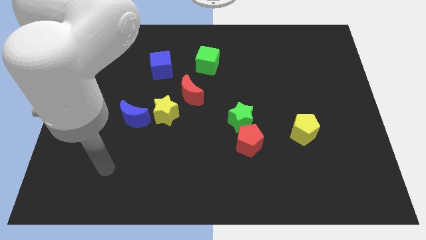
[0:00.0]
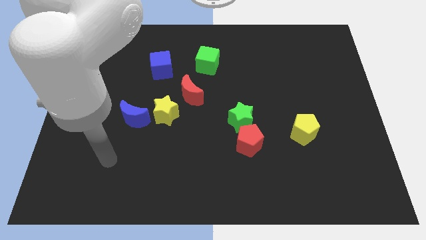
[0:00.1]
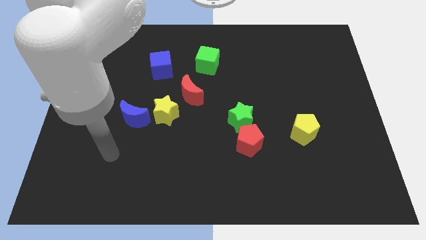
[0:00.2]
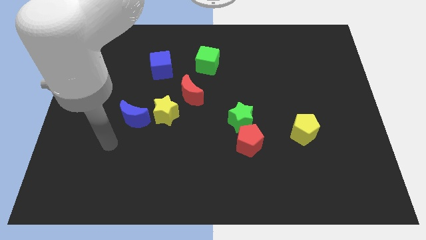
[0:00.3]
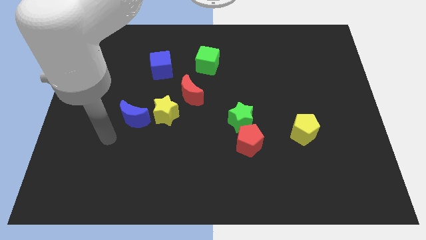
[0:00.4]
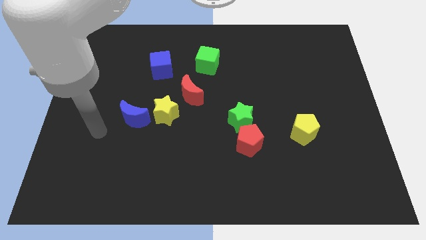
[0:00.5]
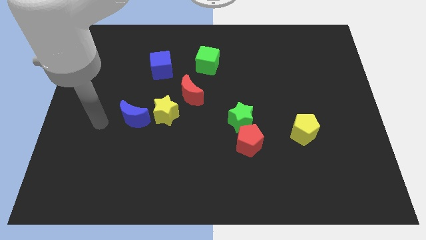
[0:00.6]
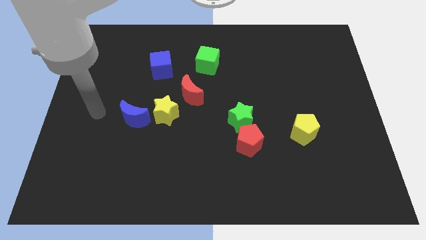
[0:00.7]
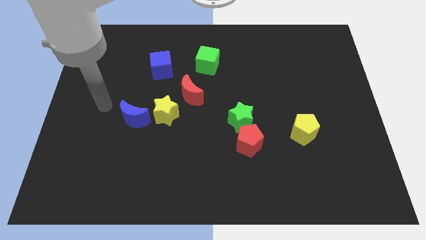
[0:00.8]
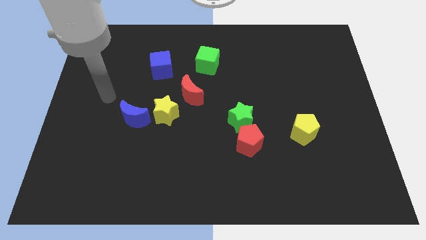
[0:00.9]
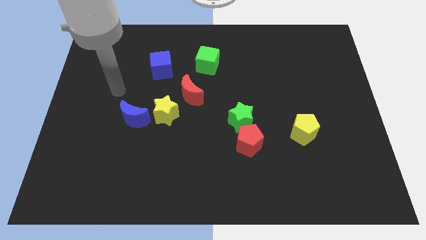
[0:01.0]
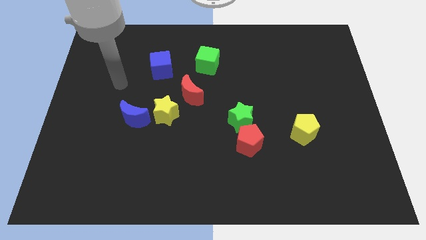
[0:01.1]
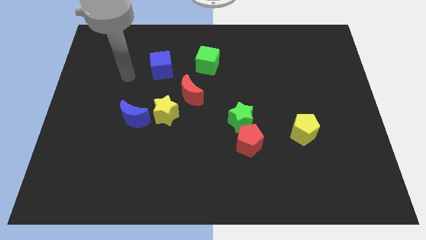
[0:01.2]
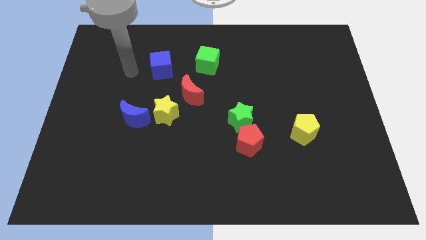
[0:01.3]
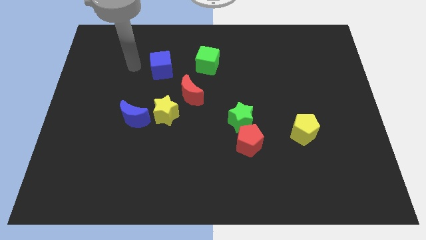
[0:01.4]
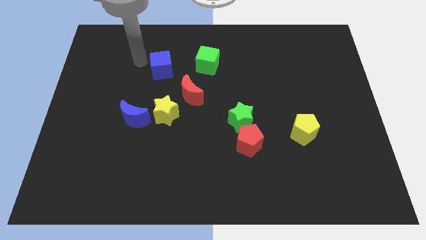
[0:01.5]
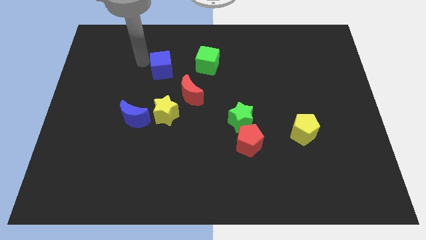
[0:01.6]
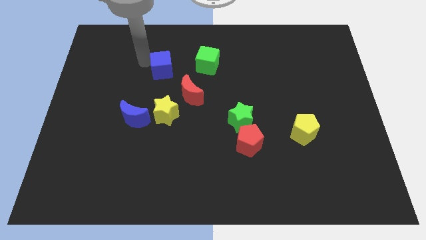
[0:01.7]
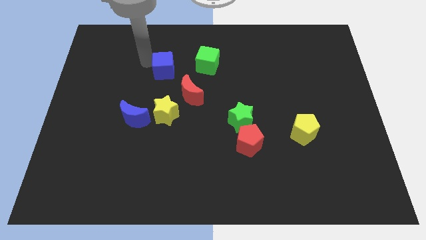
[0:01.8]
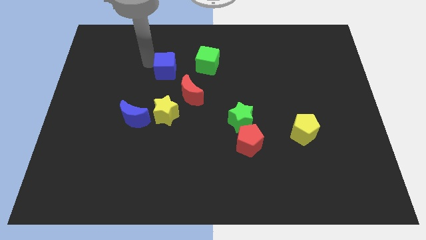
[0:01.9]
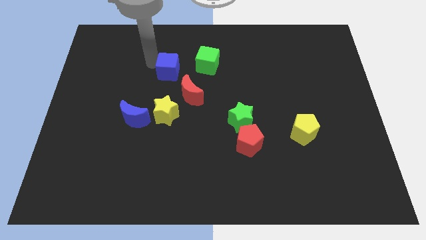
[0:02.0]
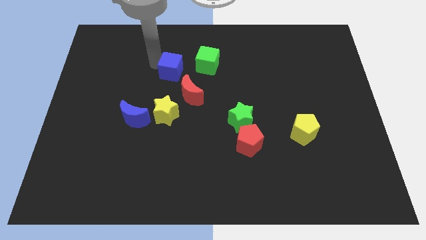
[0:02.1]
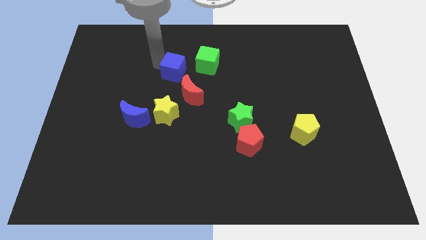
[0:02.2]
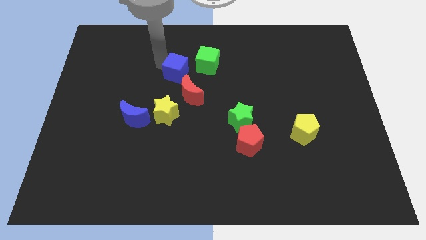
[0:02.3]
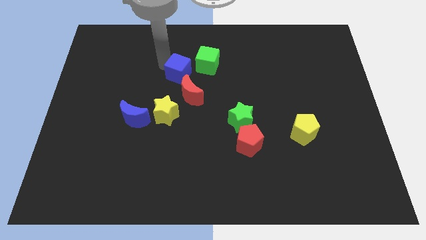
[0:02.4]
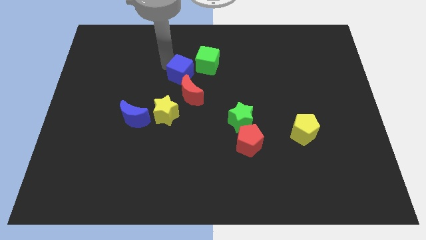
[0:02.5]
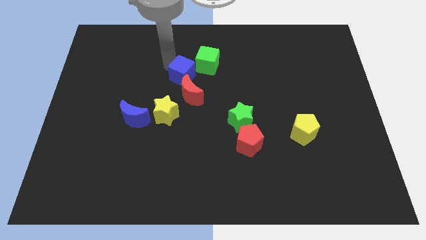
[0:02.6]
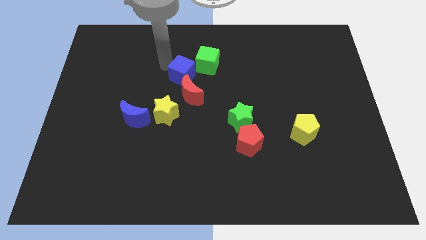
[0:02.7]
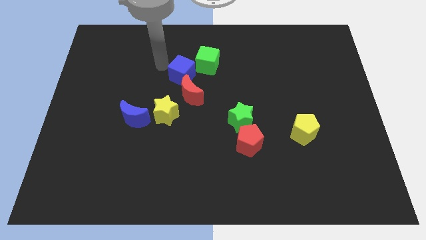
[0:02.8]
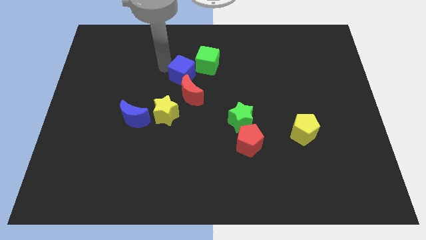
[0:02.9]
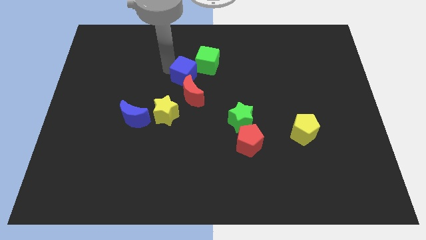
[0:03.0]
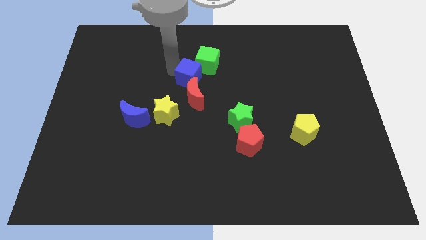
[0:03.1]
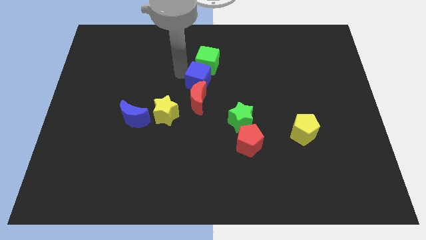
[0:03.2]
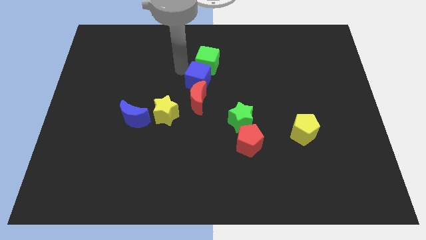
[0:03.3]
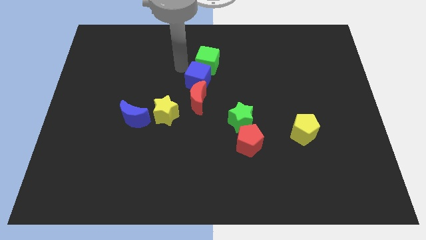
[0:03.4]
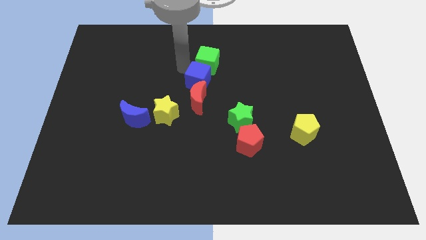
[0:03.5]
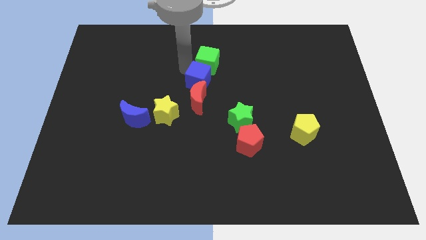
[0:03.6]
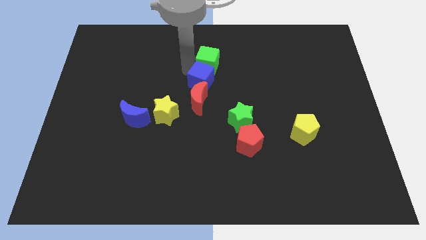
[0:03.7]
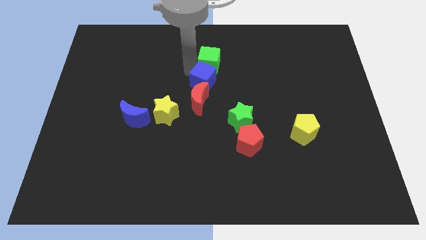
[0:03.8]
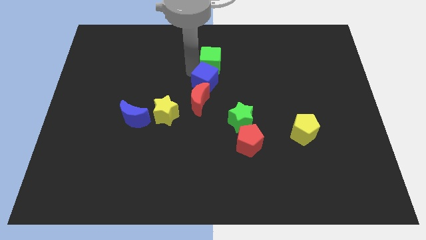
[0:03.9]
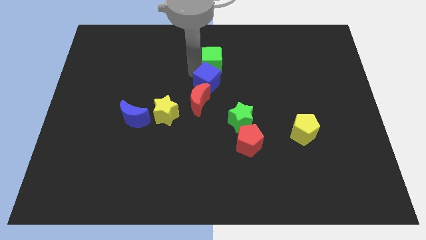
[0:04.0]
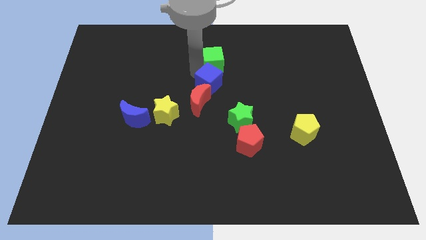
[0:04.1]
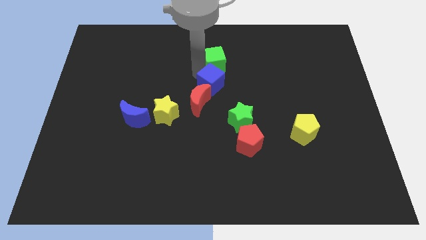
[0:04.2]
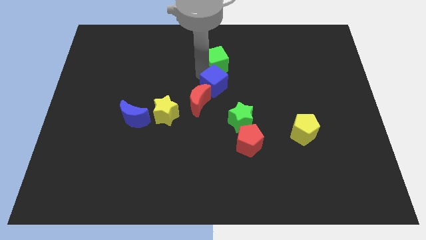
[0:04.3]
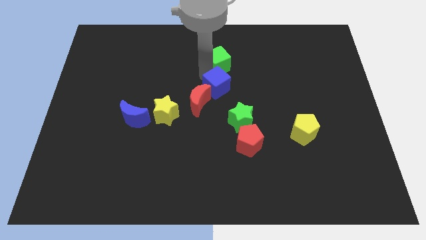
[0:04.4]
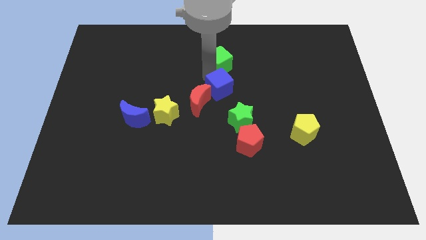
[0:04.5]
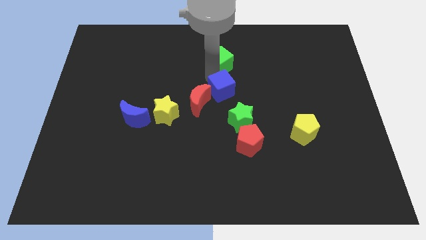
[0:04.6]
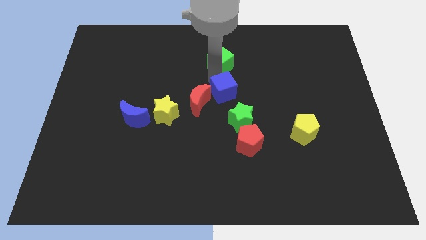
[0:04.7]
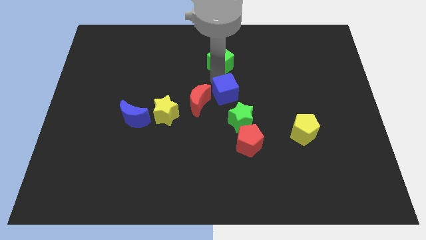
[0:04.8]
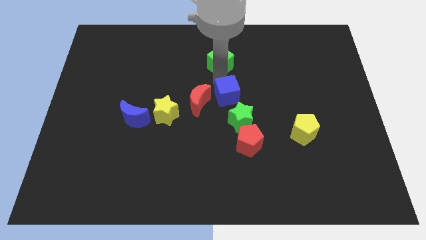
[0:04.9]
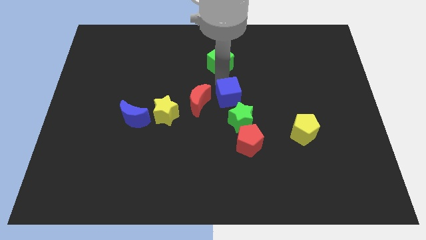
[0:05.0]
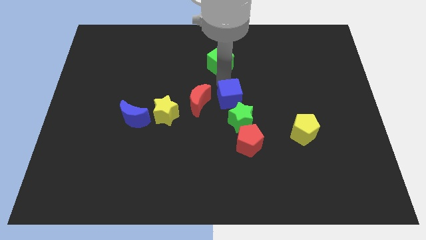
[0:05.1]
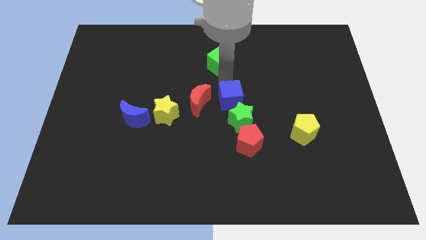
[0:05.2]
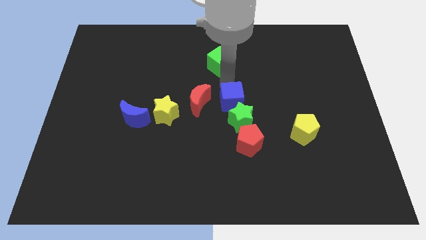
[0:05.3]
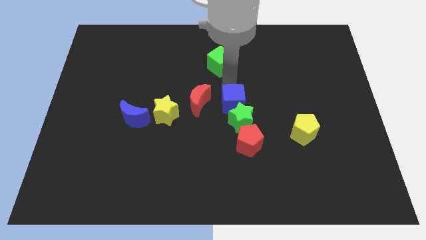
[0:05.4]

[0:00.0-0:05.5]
push the blue cube next to the green star

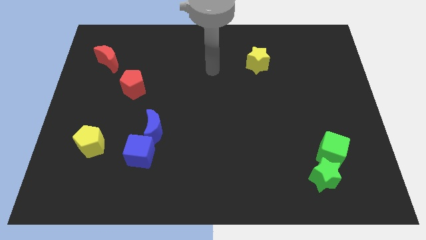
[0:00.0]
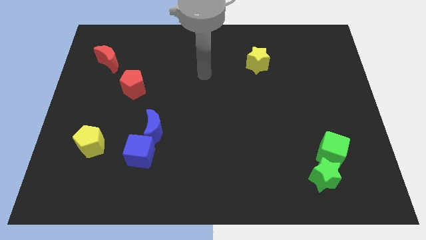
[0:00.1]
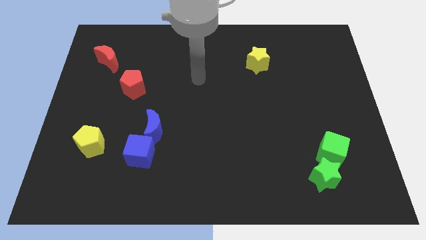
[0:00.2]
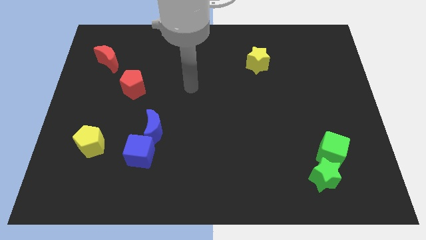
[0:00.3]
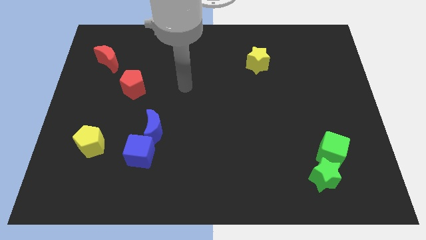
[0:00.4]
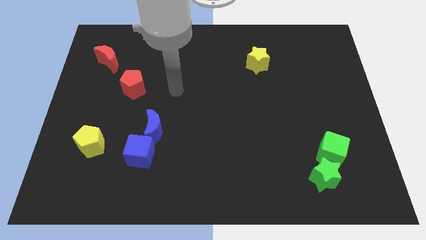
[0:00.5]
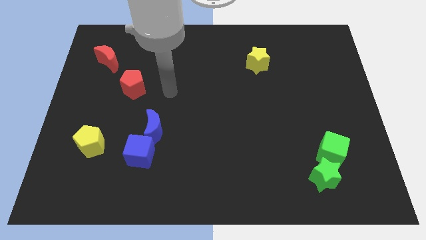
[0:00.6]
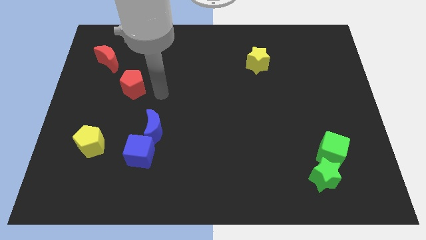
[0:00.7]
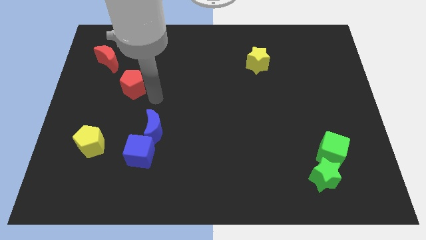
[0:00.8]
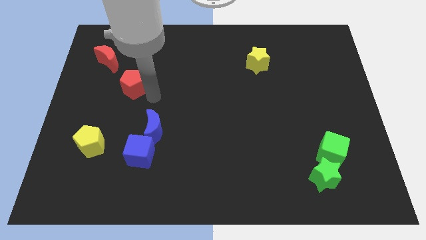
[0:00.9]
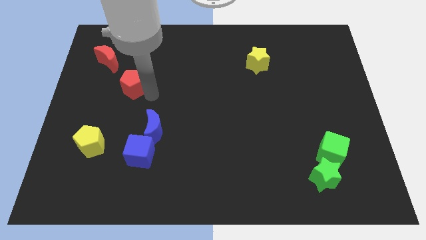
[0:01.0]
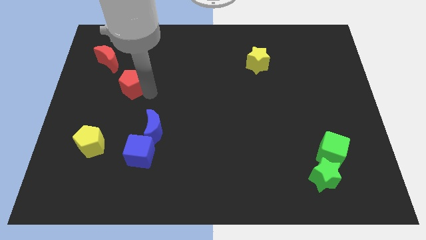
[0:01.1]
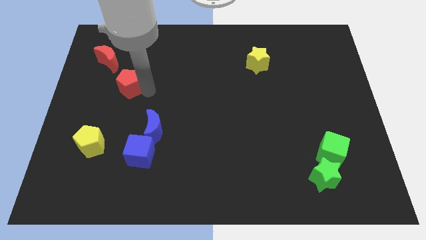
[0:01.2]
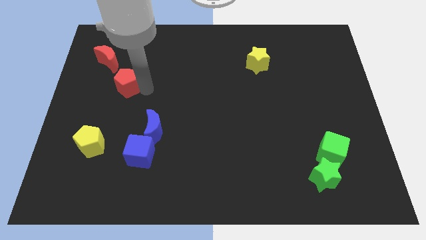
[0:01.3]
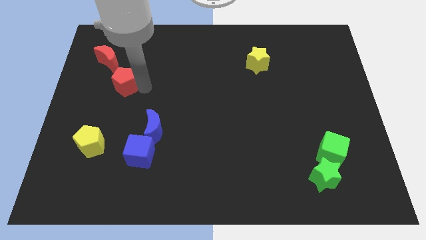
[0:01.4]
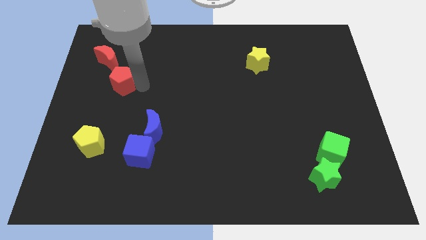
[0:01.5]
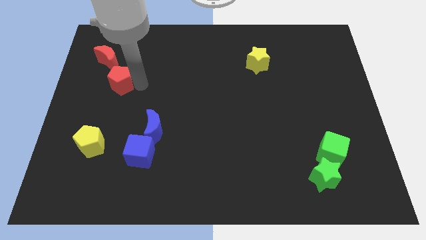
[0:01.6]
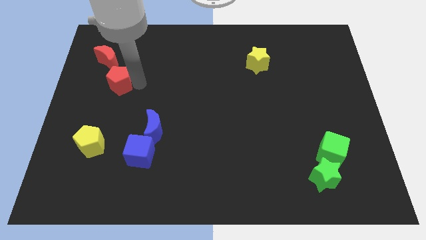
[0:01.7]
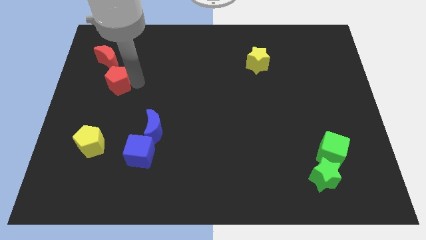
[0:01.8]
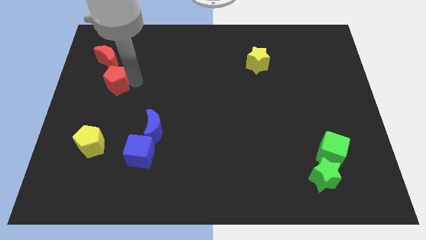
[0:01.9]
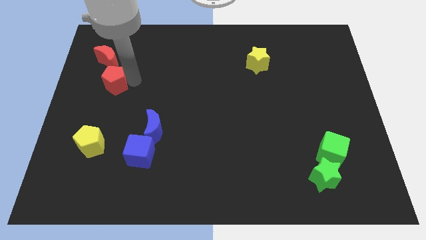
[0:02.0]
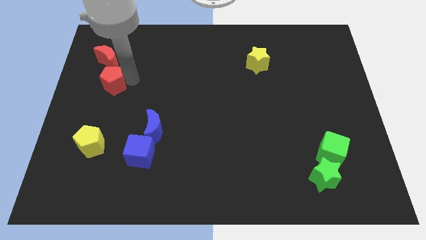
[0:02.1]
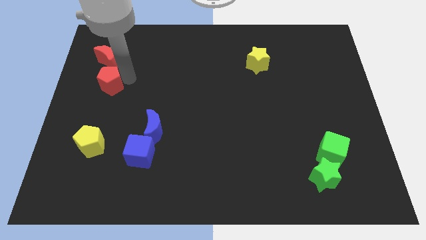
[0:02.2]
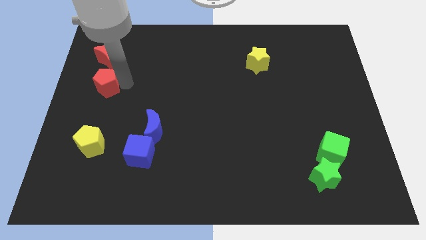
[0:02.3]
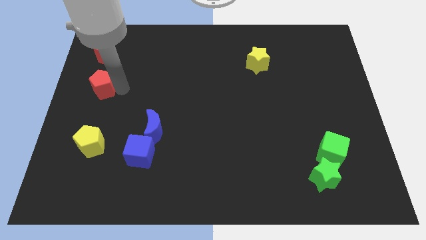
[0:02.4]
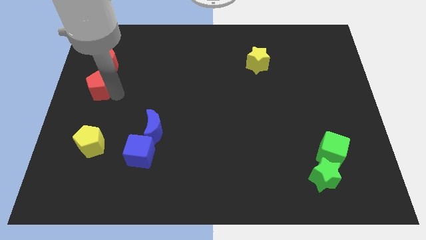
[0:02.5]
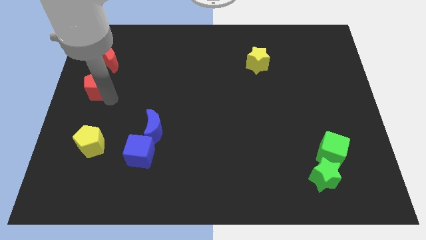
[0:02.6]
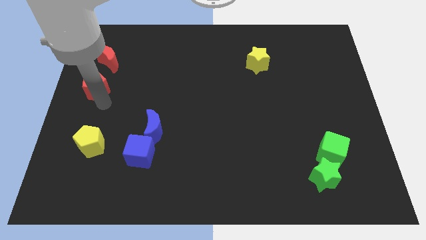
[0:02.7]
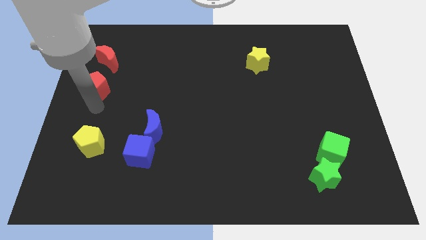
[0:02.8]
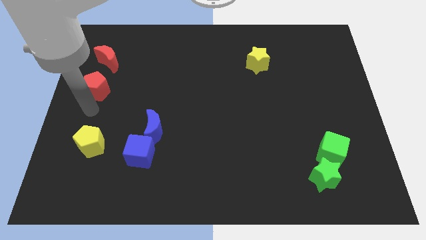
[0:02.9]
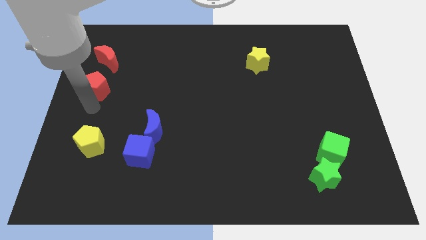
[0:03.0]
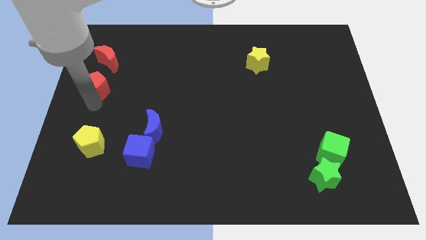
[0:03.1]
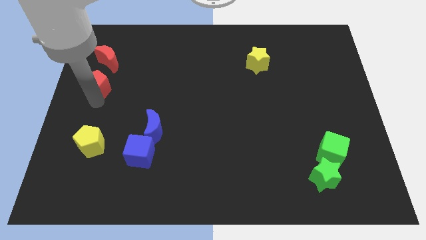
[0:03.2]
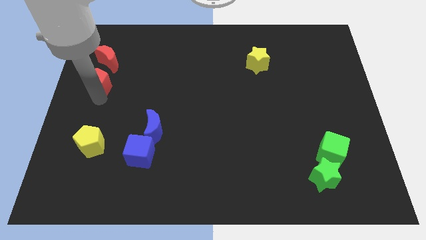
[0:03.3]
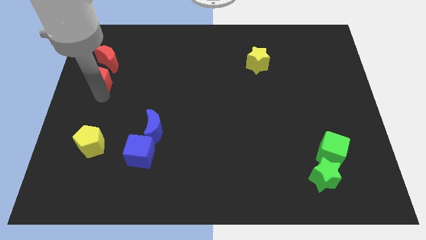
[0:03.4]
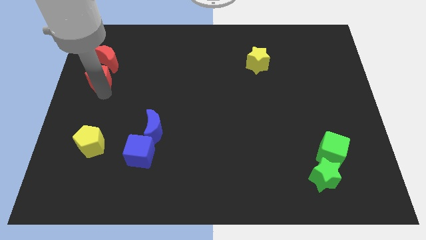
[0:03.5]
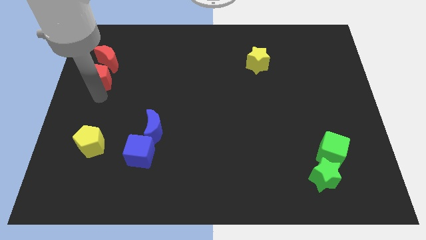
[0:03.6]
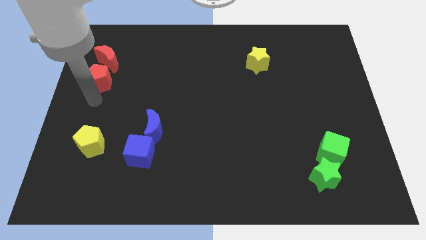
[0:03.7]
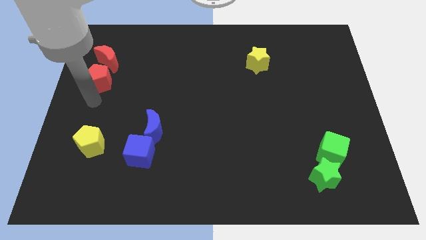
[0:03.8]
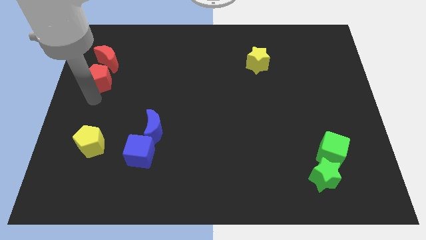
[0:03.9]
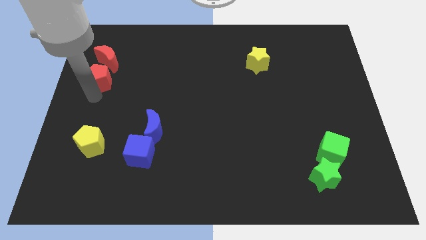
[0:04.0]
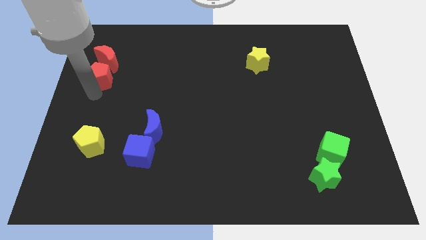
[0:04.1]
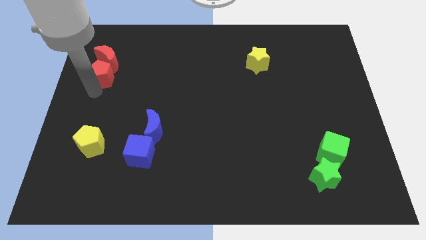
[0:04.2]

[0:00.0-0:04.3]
push the red pentagon next to the red moon
